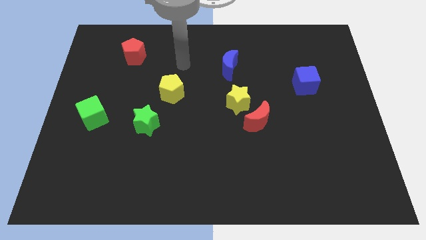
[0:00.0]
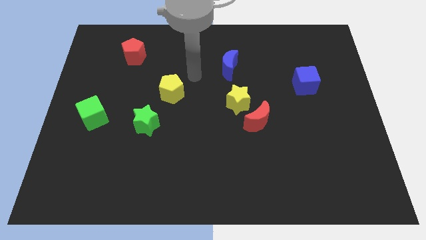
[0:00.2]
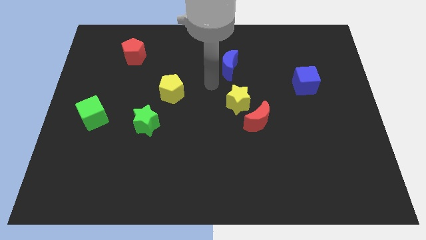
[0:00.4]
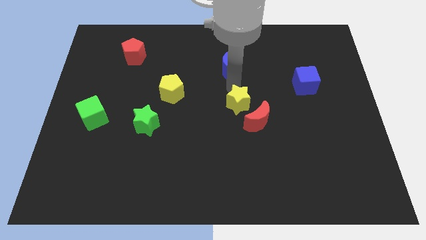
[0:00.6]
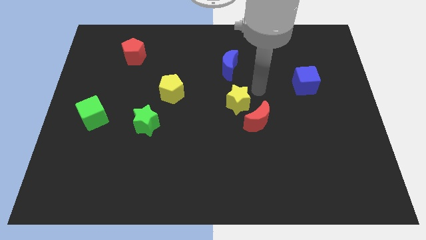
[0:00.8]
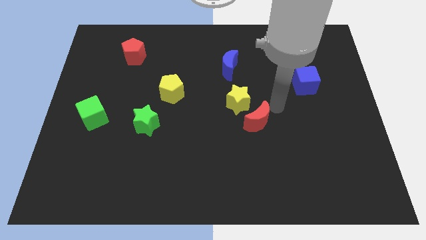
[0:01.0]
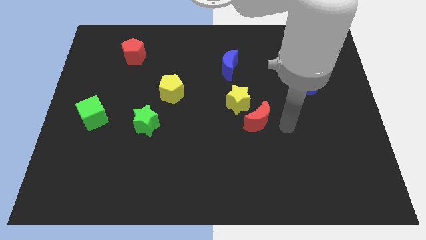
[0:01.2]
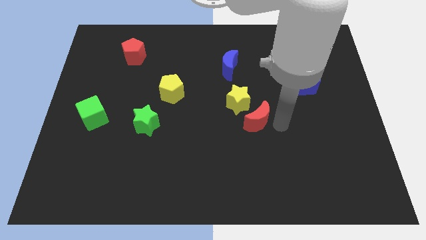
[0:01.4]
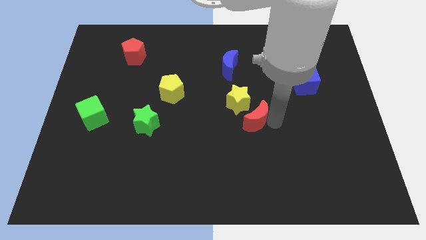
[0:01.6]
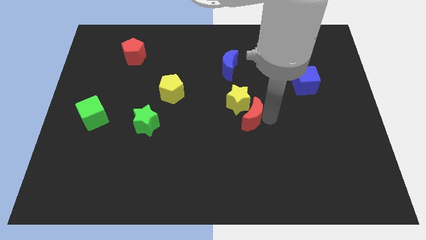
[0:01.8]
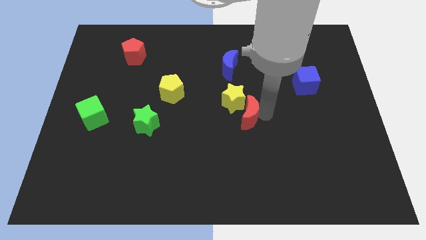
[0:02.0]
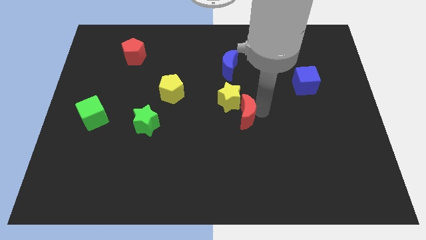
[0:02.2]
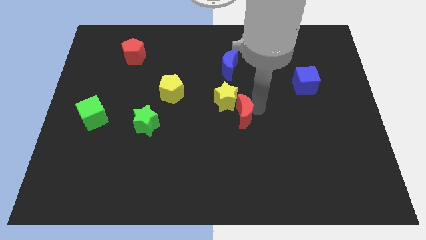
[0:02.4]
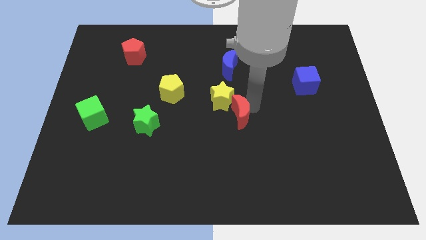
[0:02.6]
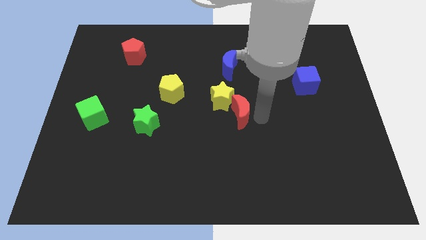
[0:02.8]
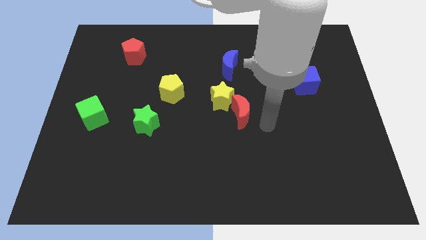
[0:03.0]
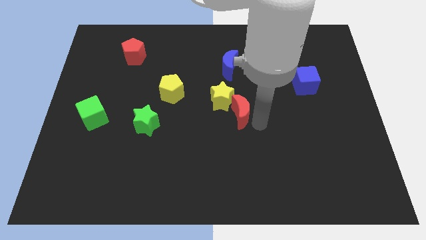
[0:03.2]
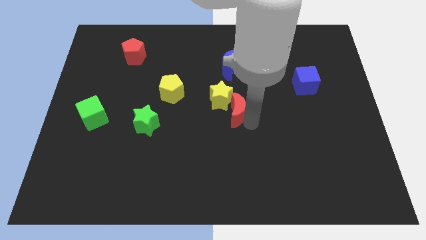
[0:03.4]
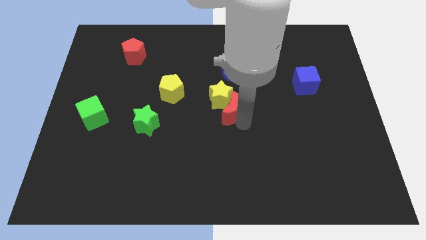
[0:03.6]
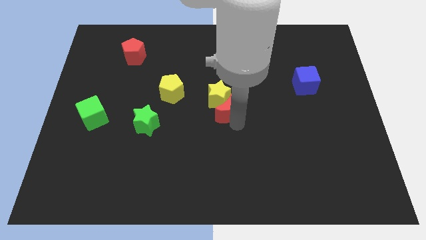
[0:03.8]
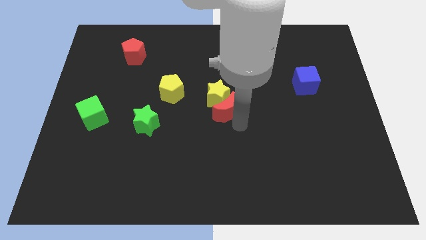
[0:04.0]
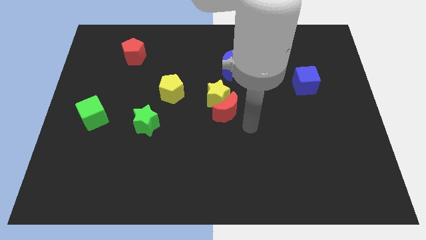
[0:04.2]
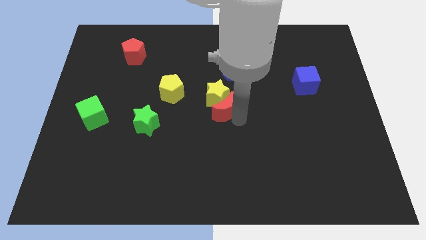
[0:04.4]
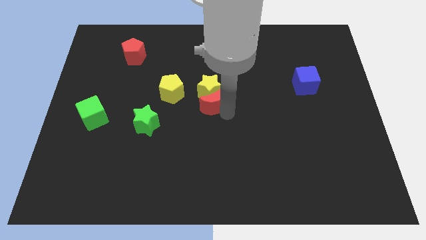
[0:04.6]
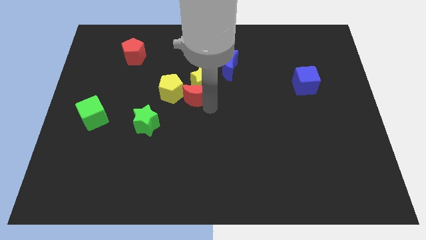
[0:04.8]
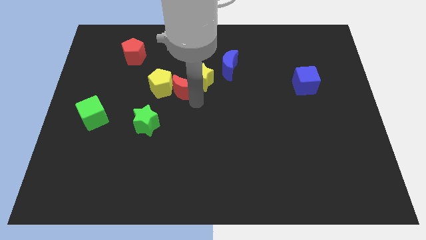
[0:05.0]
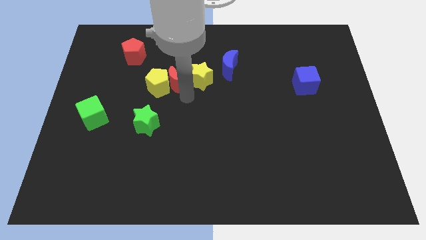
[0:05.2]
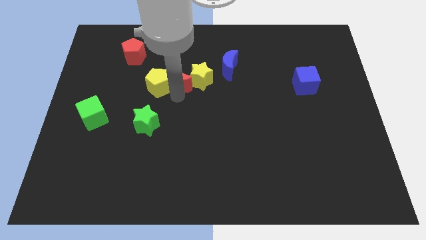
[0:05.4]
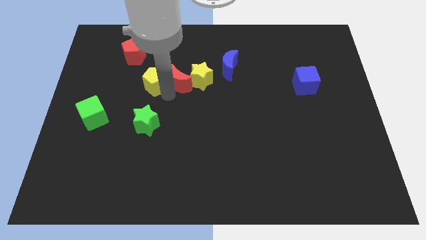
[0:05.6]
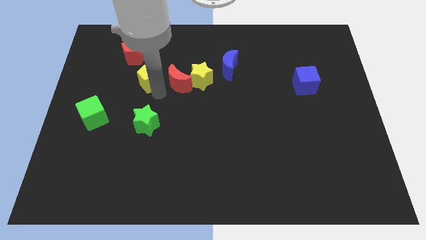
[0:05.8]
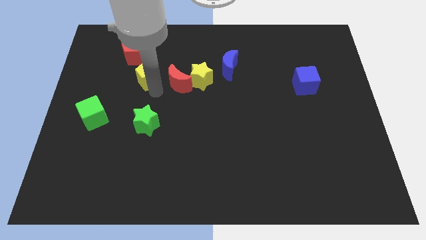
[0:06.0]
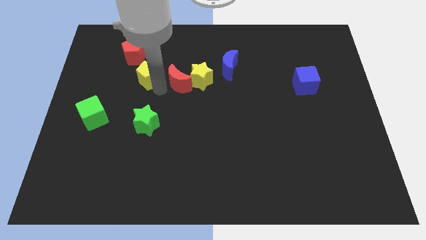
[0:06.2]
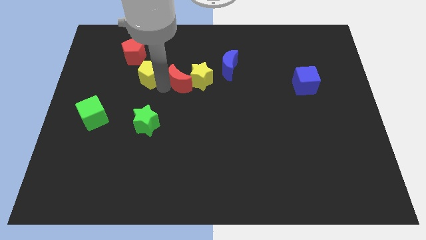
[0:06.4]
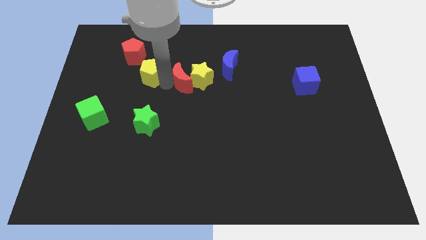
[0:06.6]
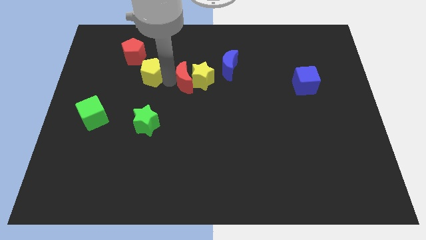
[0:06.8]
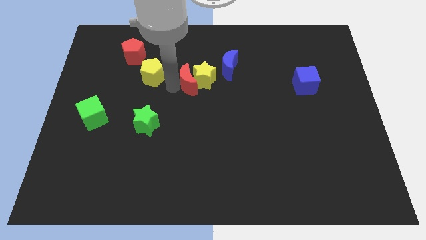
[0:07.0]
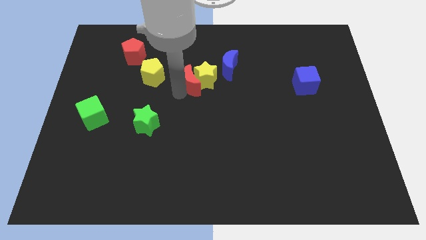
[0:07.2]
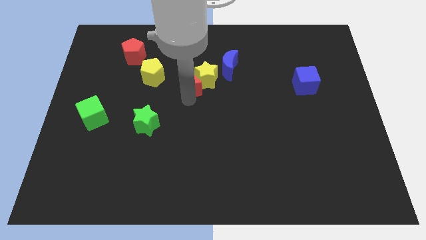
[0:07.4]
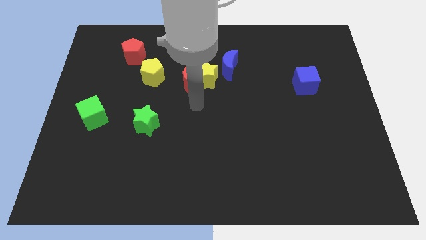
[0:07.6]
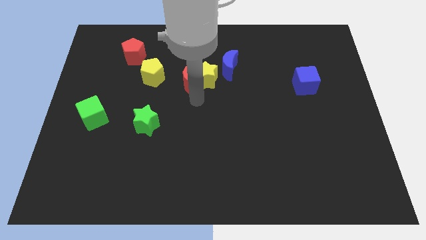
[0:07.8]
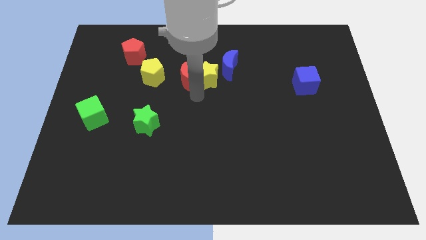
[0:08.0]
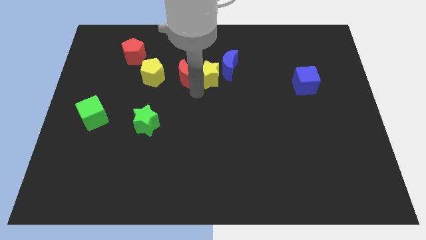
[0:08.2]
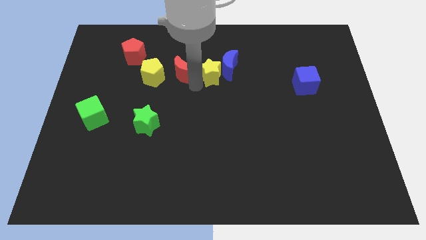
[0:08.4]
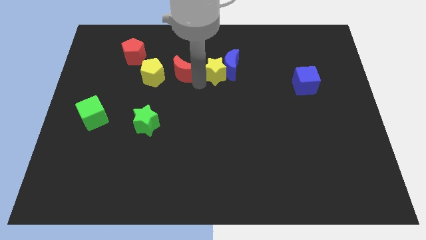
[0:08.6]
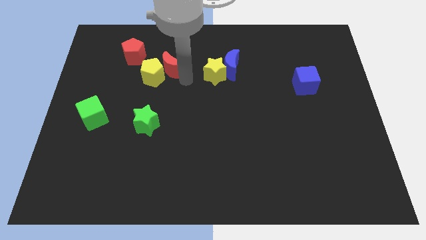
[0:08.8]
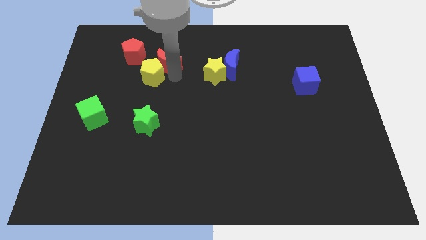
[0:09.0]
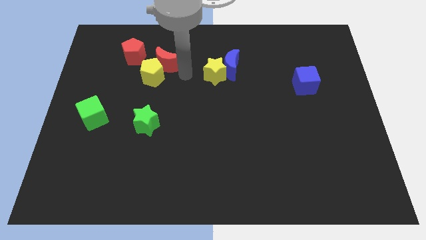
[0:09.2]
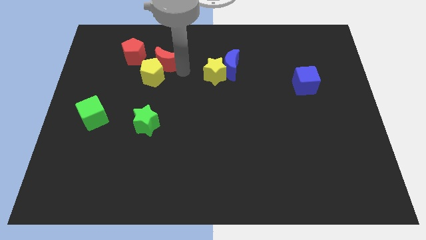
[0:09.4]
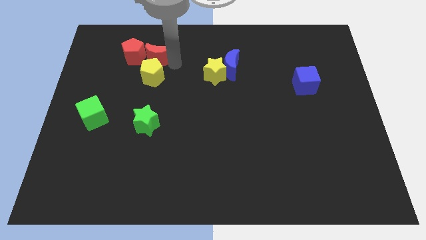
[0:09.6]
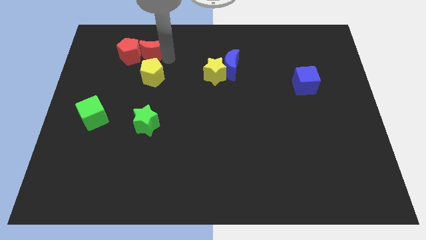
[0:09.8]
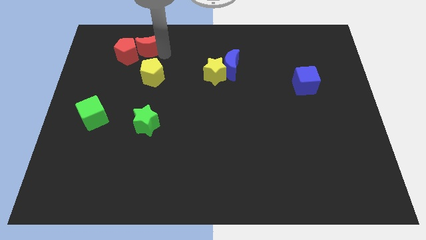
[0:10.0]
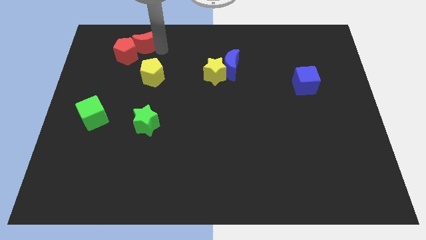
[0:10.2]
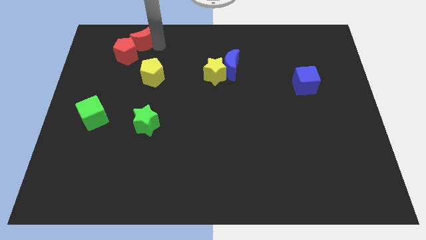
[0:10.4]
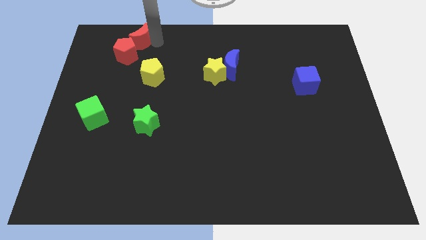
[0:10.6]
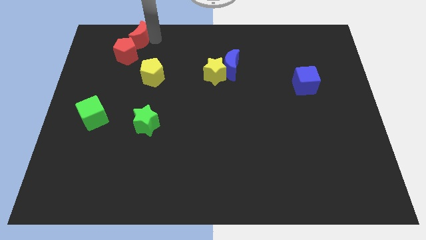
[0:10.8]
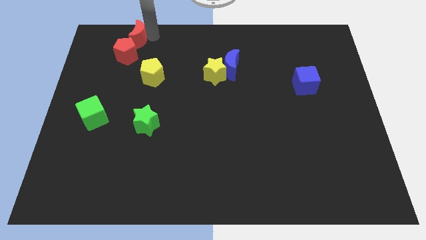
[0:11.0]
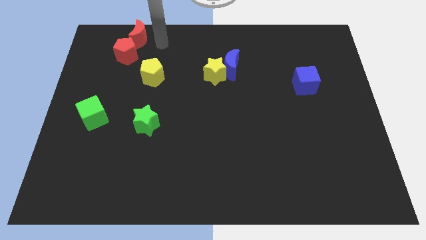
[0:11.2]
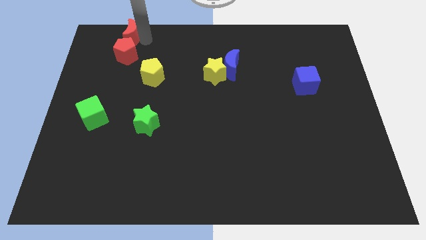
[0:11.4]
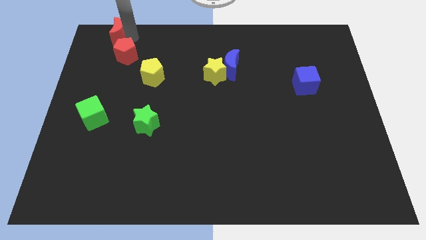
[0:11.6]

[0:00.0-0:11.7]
slide the red moon to the top left of the board

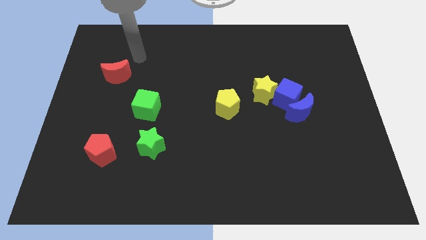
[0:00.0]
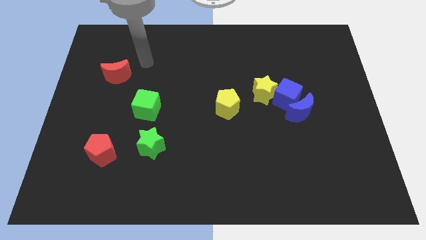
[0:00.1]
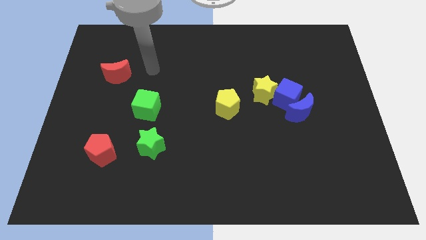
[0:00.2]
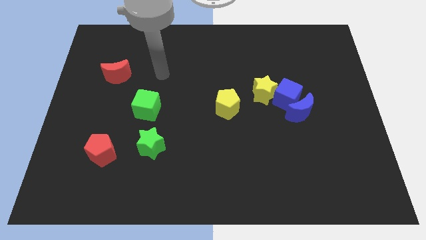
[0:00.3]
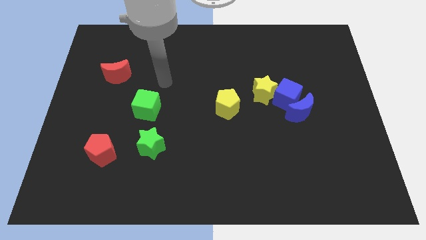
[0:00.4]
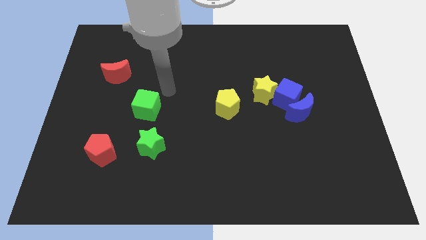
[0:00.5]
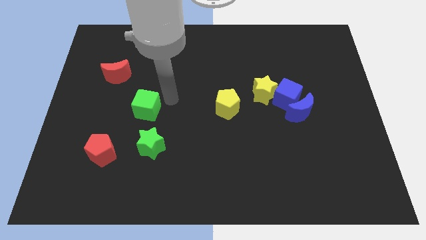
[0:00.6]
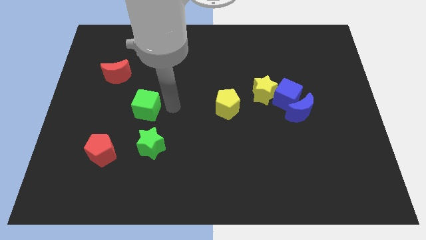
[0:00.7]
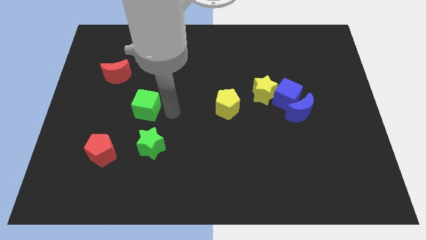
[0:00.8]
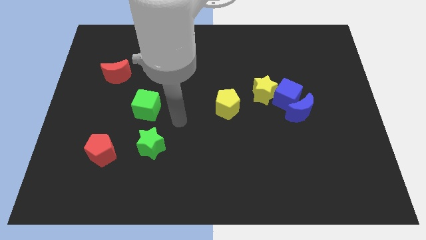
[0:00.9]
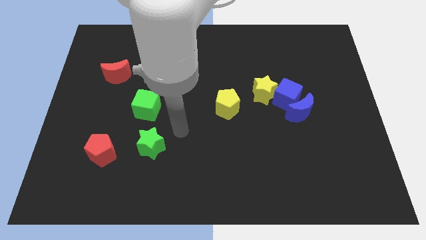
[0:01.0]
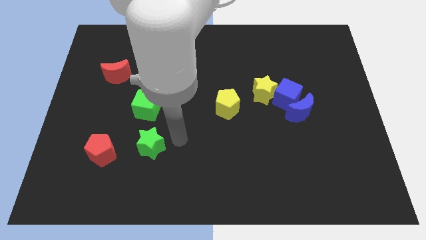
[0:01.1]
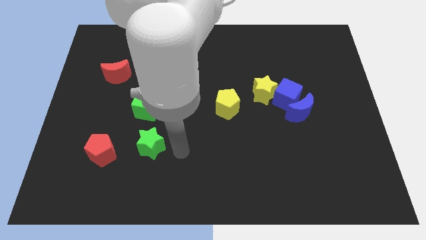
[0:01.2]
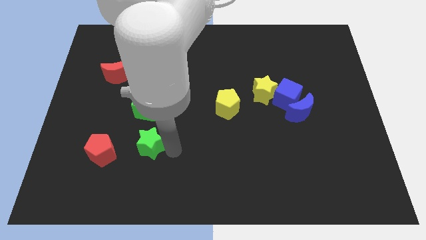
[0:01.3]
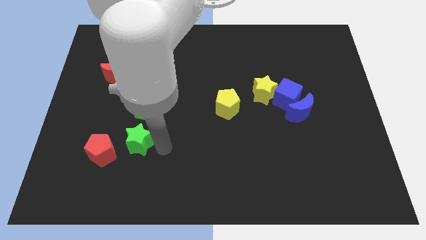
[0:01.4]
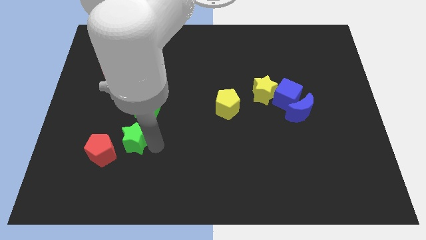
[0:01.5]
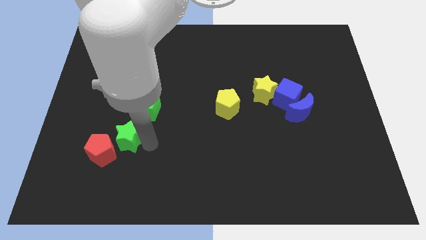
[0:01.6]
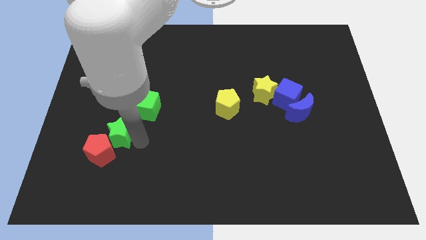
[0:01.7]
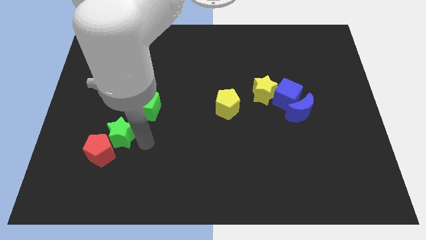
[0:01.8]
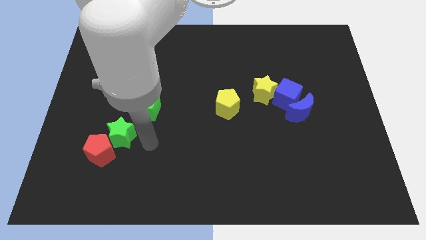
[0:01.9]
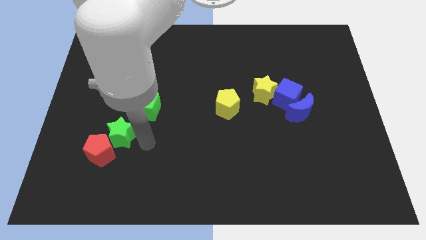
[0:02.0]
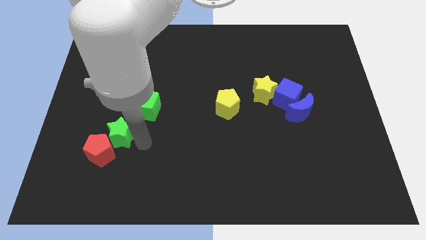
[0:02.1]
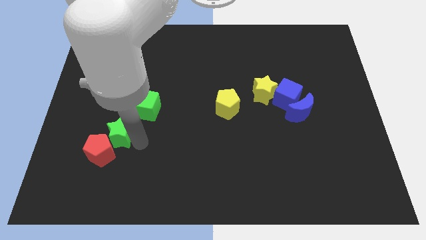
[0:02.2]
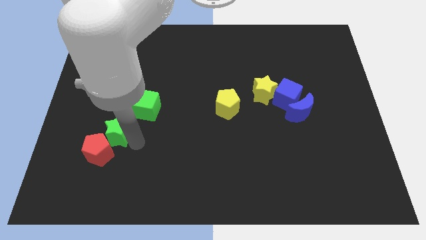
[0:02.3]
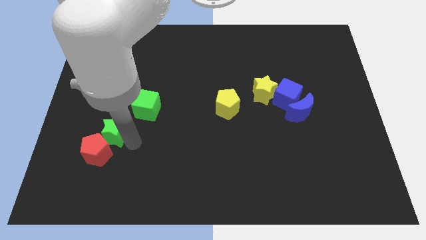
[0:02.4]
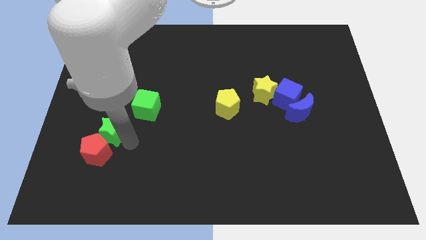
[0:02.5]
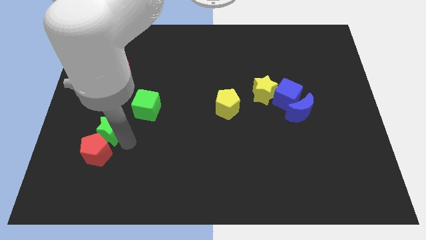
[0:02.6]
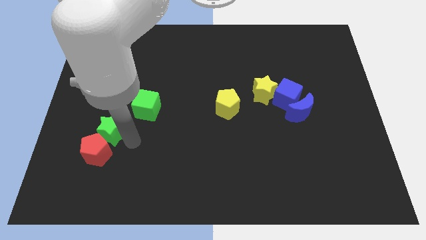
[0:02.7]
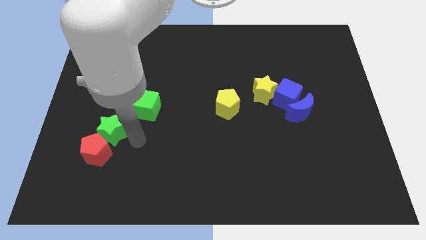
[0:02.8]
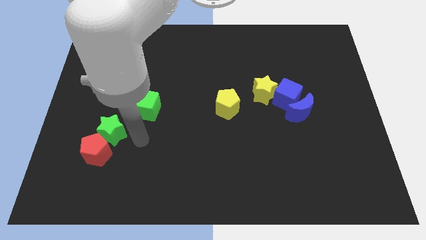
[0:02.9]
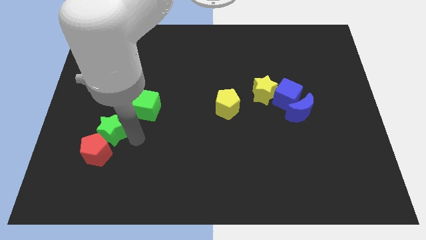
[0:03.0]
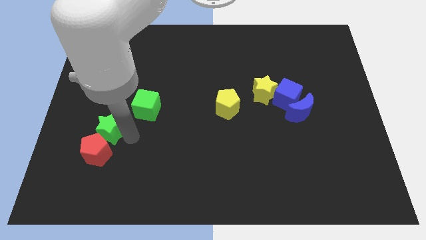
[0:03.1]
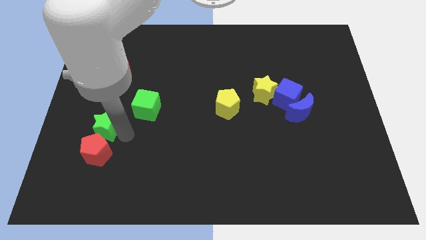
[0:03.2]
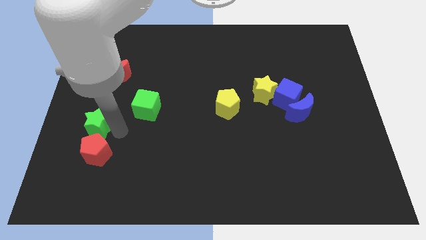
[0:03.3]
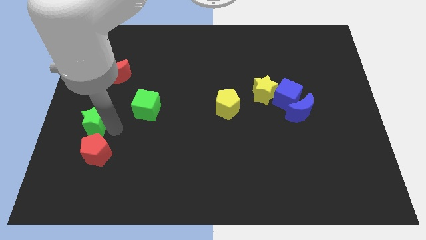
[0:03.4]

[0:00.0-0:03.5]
slide the green star to the center left
